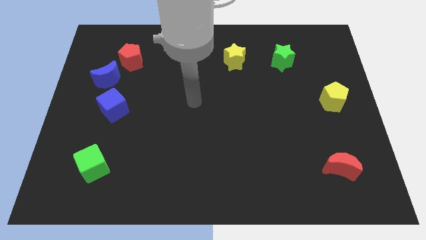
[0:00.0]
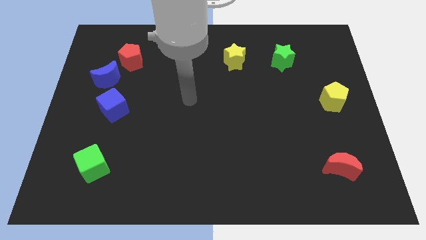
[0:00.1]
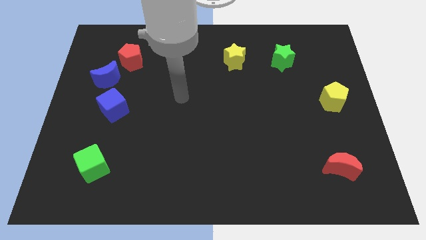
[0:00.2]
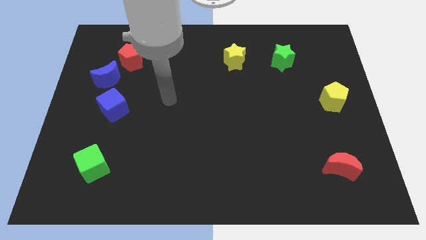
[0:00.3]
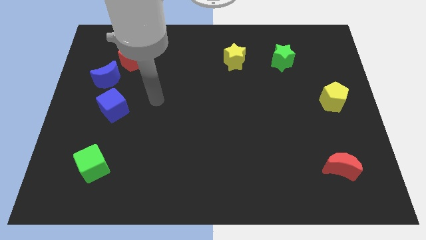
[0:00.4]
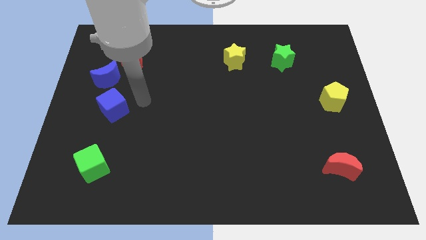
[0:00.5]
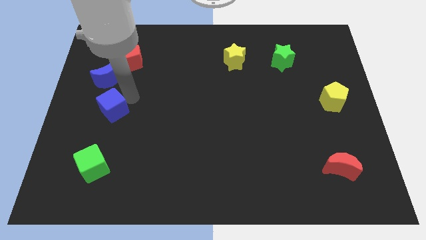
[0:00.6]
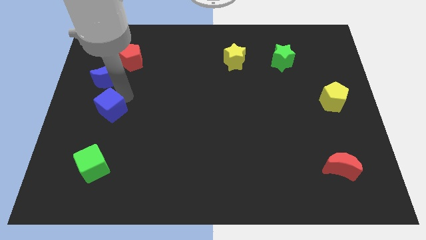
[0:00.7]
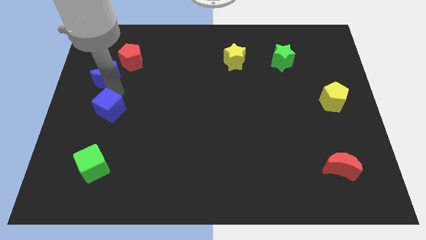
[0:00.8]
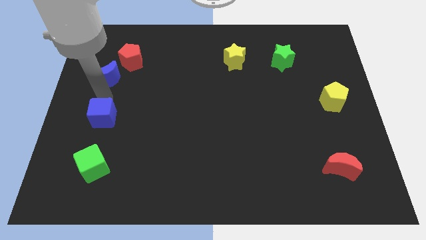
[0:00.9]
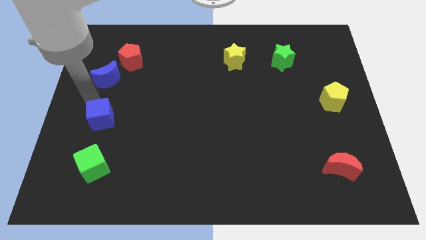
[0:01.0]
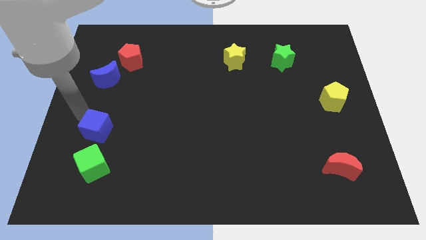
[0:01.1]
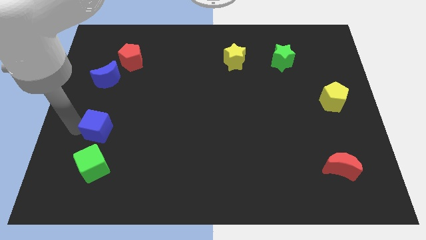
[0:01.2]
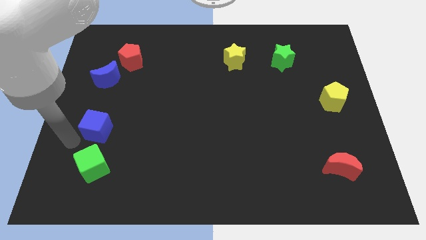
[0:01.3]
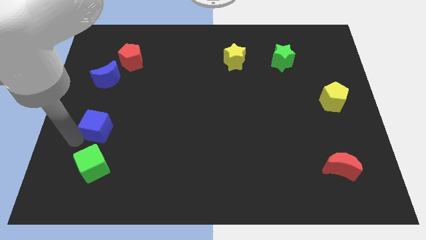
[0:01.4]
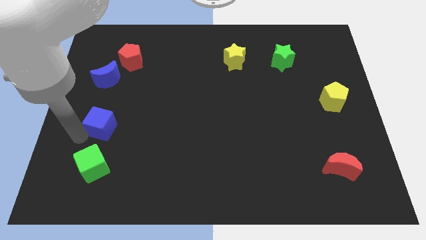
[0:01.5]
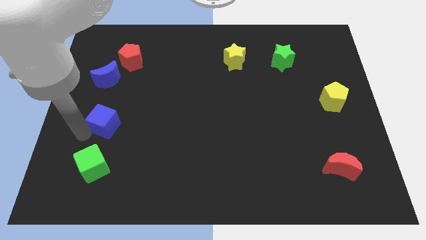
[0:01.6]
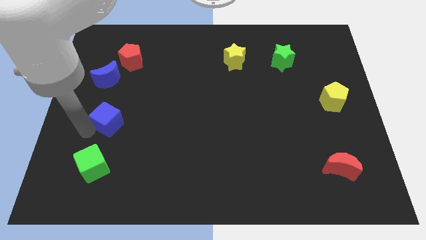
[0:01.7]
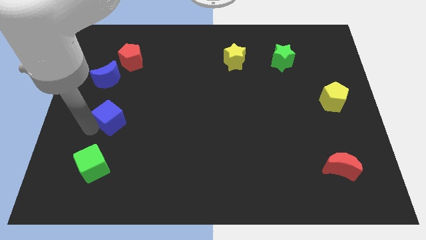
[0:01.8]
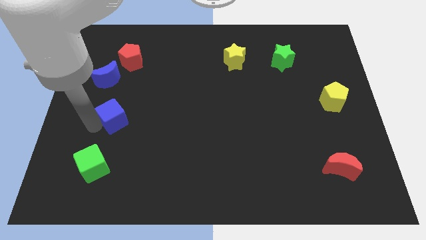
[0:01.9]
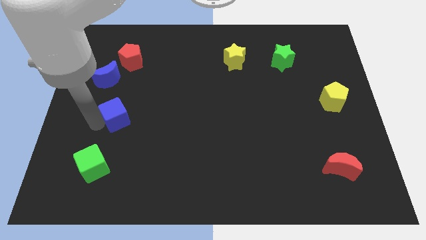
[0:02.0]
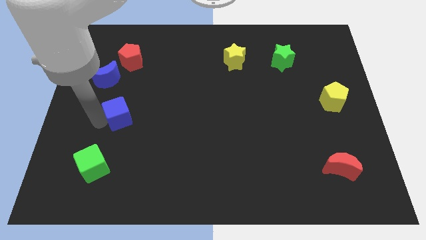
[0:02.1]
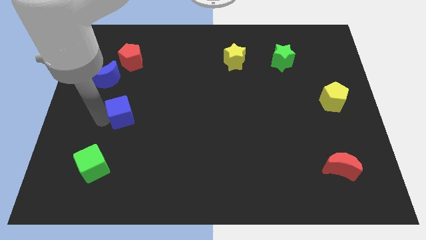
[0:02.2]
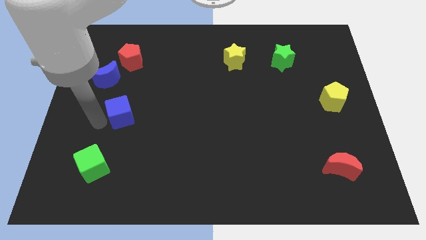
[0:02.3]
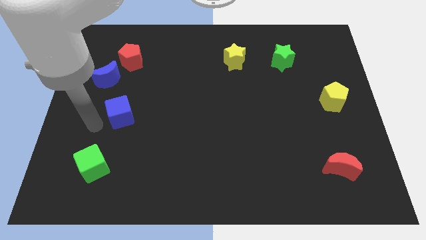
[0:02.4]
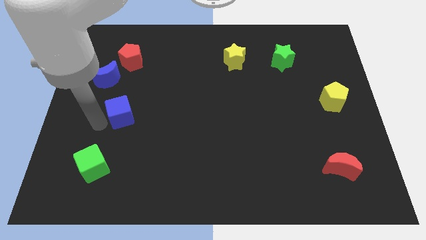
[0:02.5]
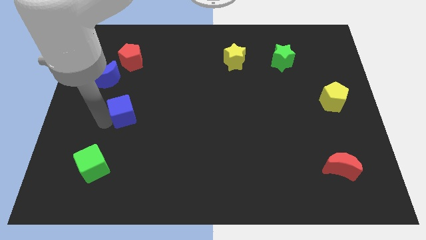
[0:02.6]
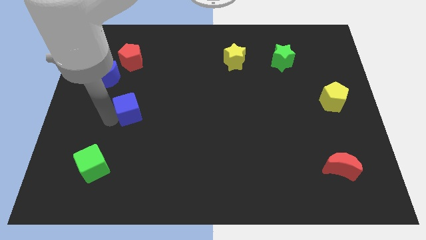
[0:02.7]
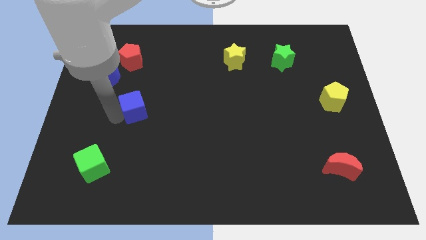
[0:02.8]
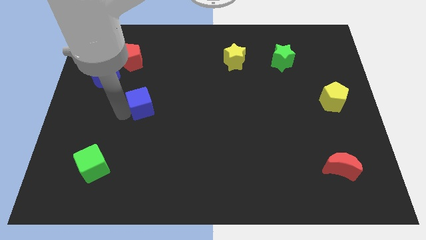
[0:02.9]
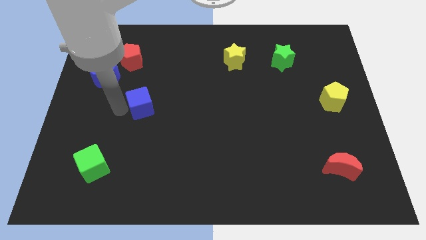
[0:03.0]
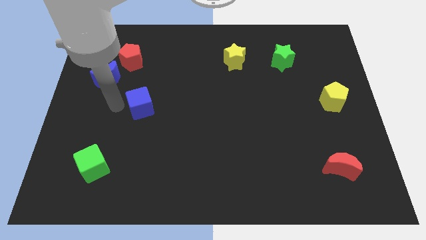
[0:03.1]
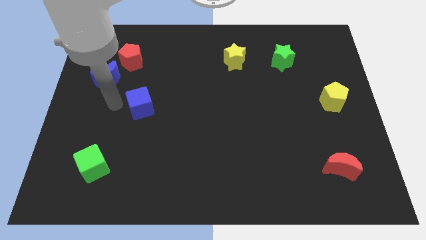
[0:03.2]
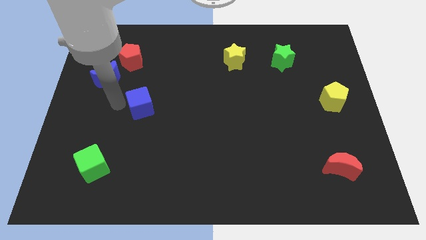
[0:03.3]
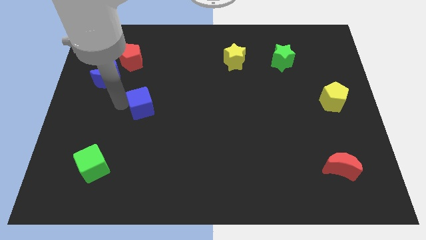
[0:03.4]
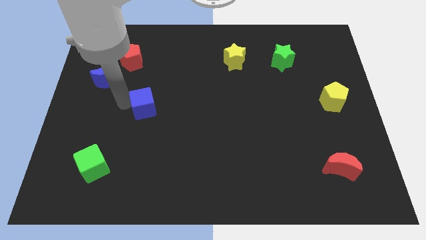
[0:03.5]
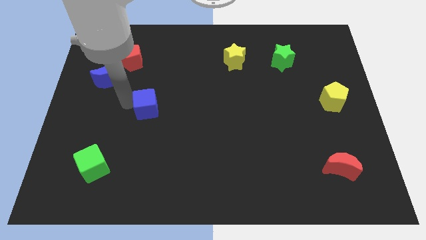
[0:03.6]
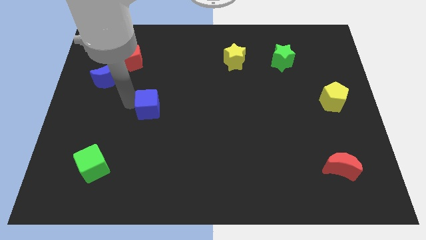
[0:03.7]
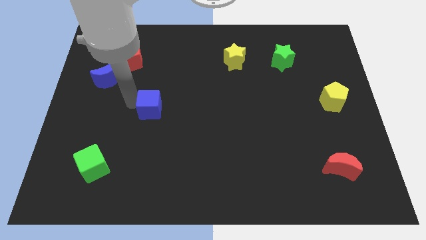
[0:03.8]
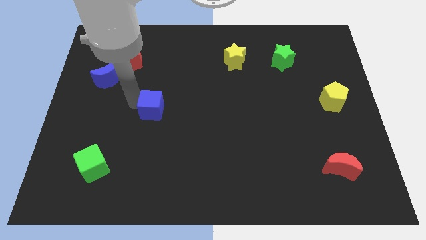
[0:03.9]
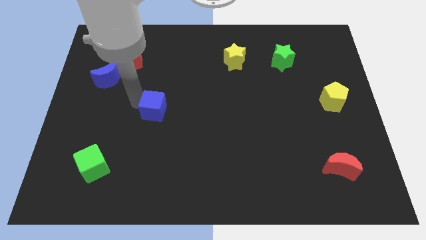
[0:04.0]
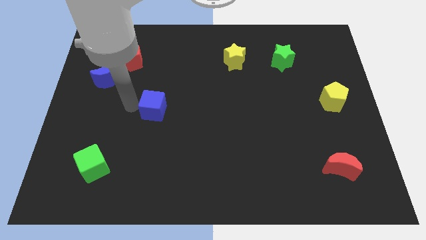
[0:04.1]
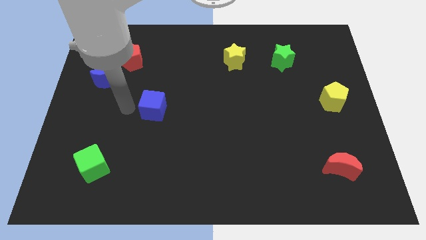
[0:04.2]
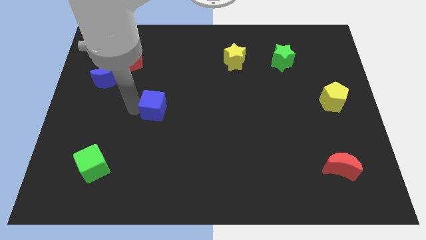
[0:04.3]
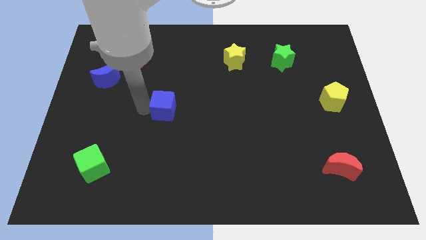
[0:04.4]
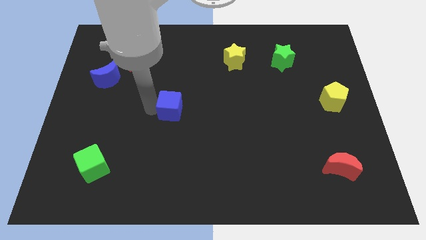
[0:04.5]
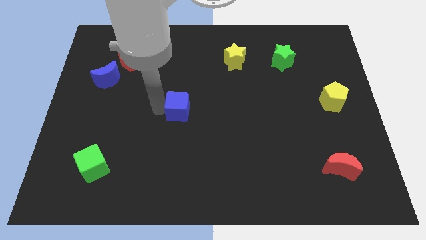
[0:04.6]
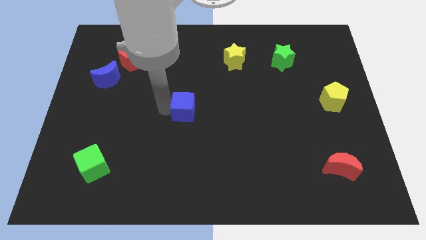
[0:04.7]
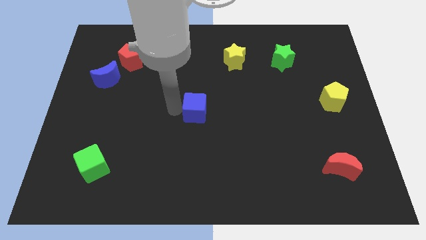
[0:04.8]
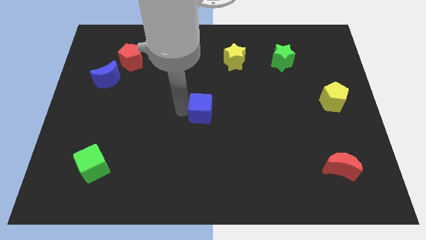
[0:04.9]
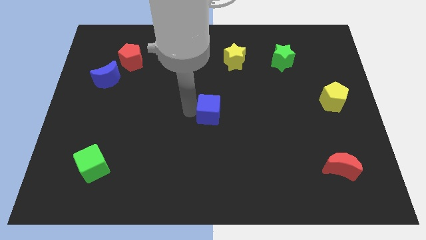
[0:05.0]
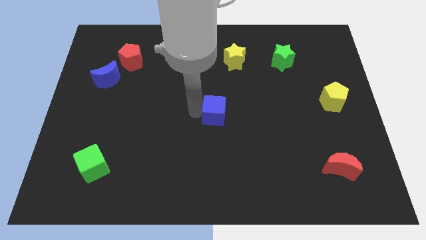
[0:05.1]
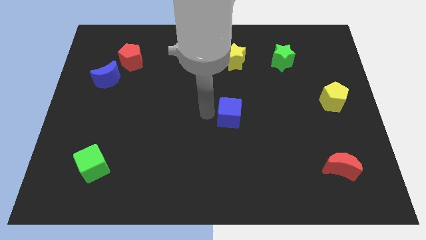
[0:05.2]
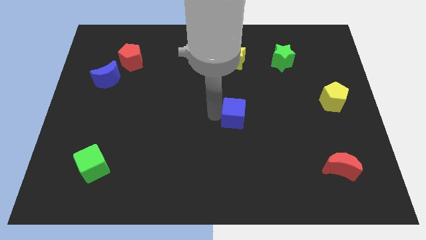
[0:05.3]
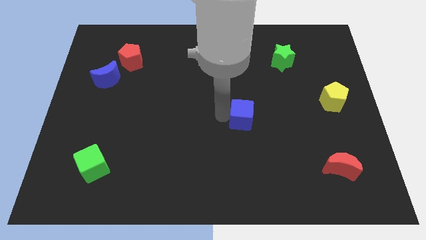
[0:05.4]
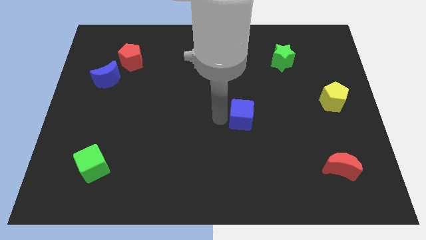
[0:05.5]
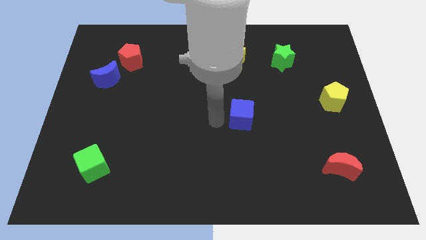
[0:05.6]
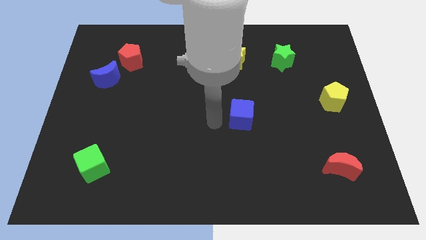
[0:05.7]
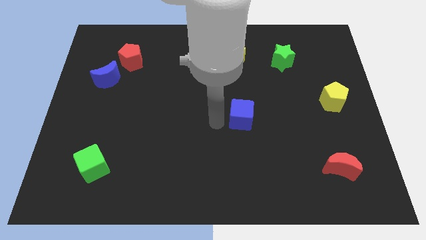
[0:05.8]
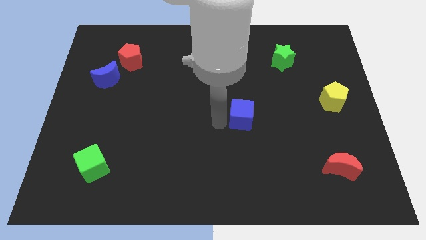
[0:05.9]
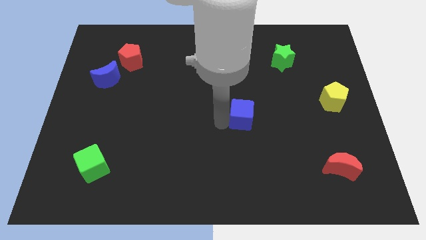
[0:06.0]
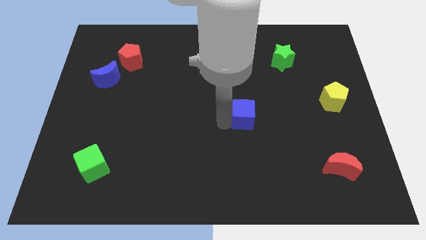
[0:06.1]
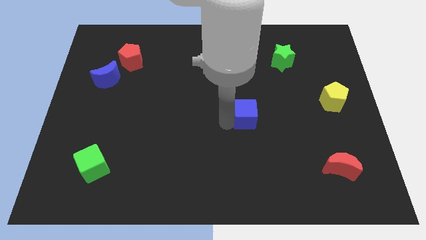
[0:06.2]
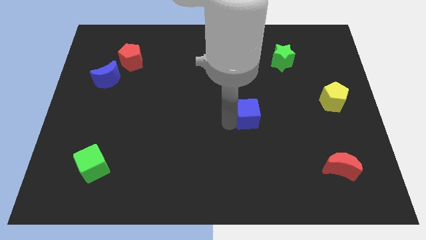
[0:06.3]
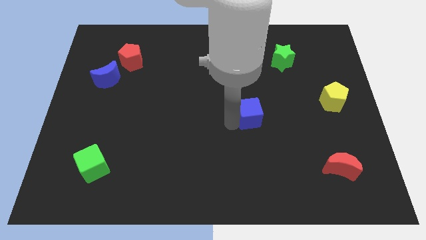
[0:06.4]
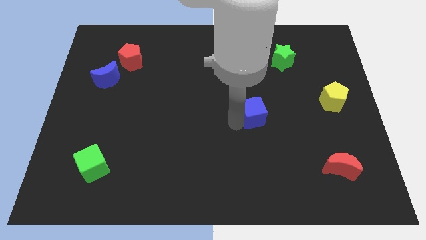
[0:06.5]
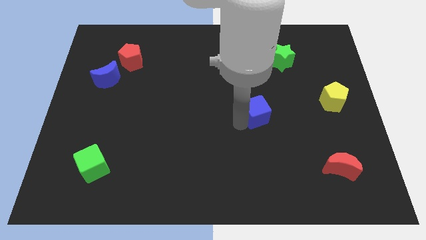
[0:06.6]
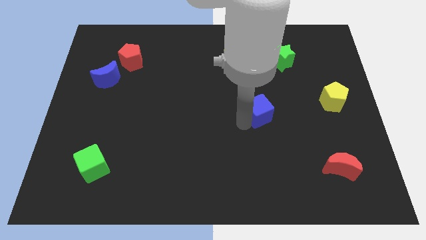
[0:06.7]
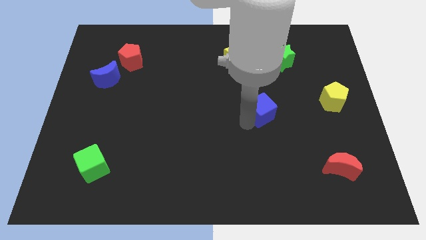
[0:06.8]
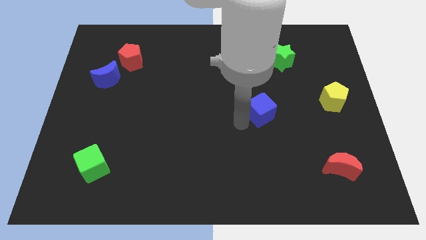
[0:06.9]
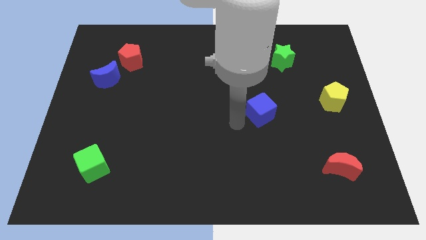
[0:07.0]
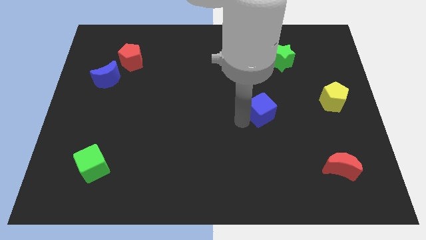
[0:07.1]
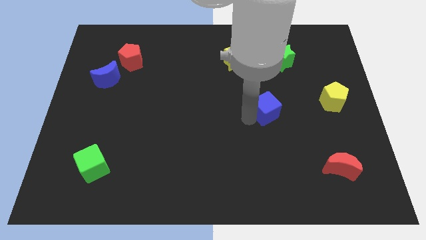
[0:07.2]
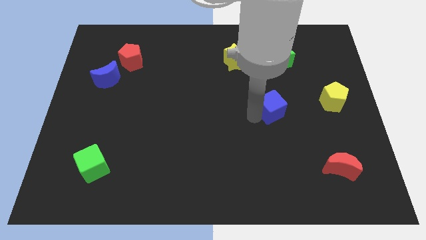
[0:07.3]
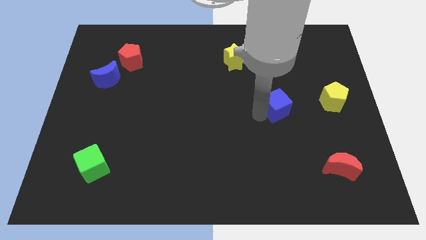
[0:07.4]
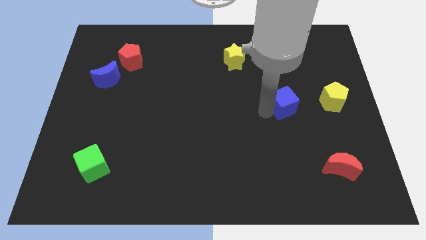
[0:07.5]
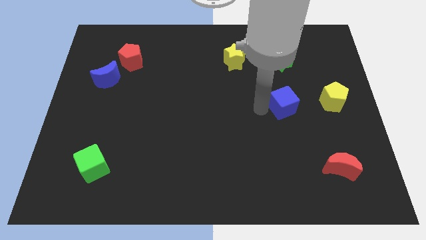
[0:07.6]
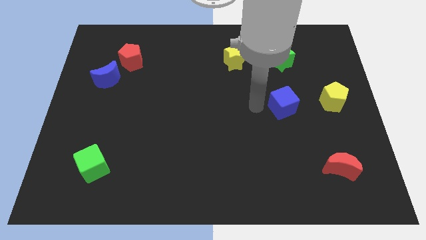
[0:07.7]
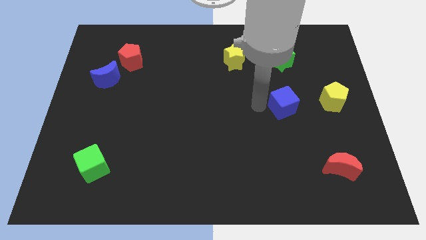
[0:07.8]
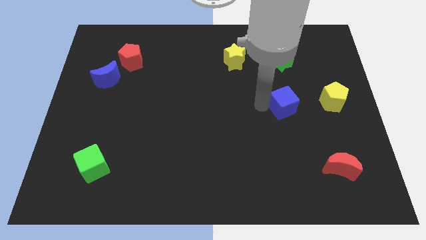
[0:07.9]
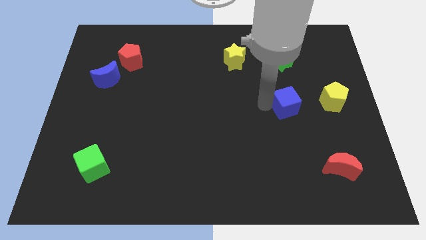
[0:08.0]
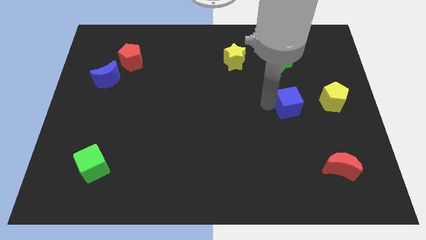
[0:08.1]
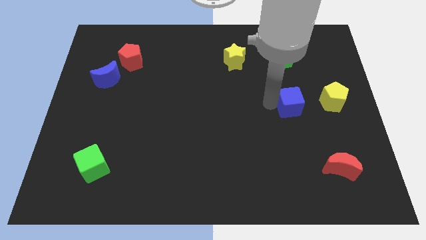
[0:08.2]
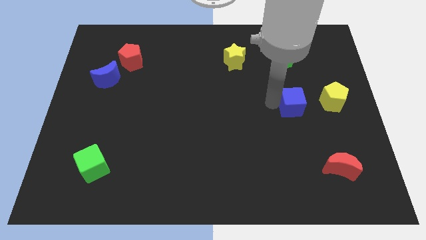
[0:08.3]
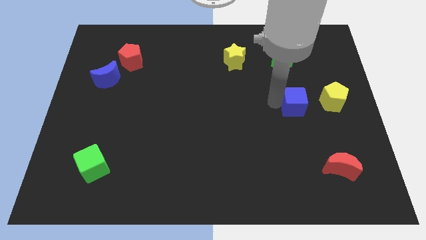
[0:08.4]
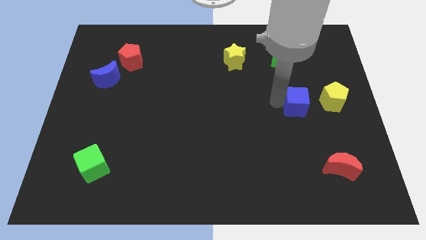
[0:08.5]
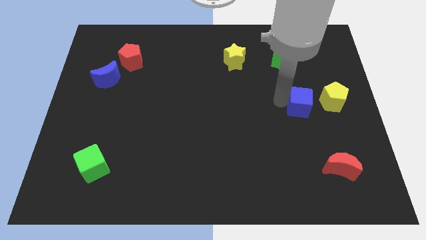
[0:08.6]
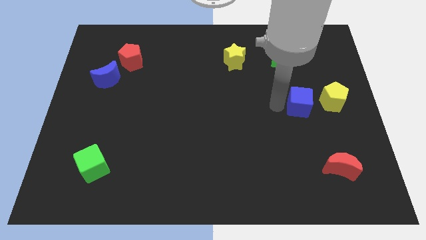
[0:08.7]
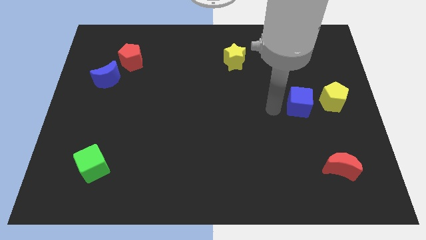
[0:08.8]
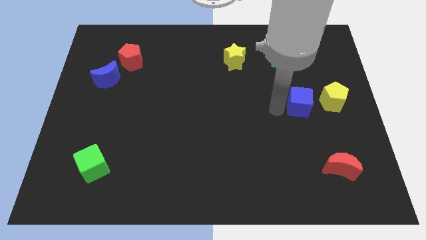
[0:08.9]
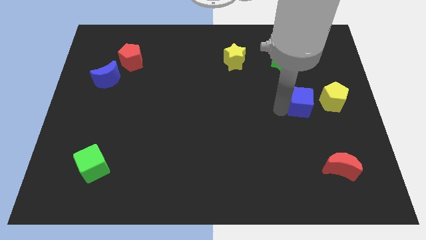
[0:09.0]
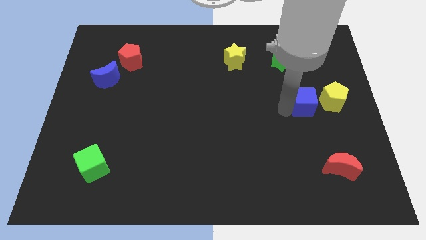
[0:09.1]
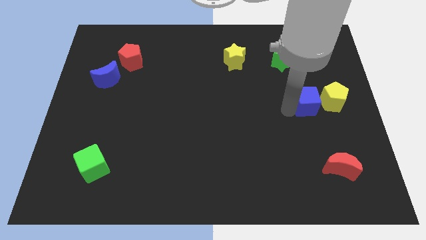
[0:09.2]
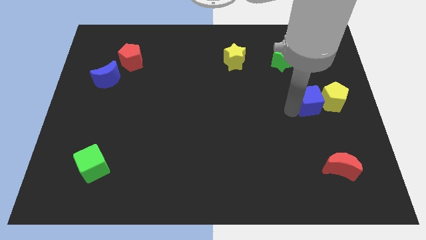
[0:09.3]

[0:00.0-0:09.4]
put the blue cube next to the yellow pentagon
